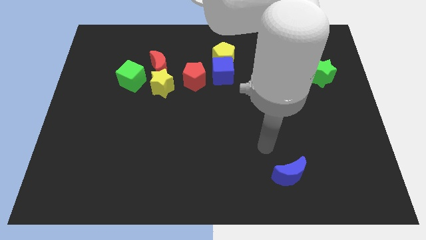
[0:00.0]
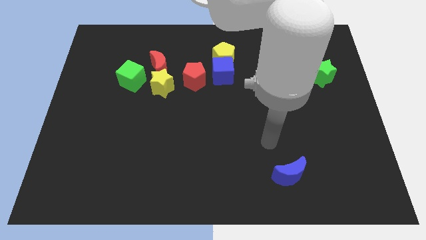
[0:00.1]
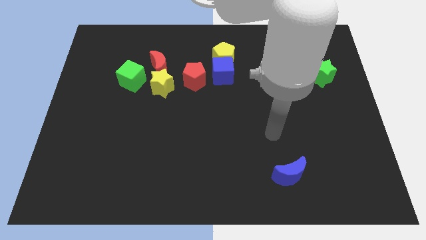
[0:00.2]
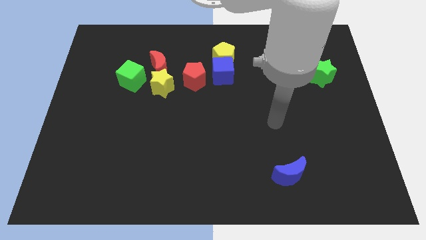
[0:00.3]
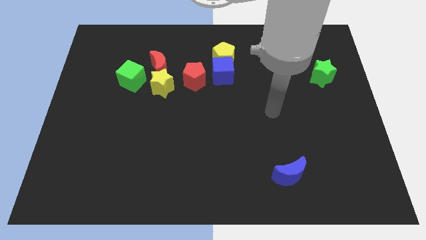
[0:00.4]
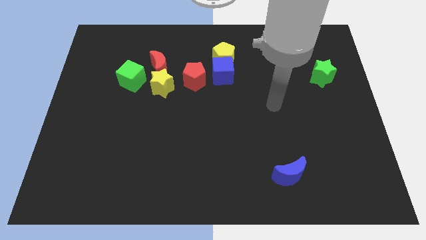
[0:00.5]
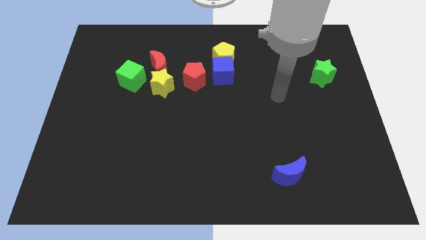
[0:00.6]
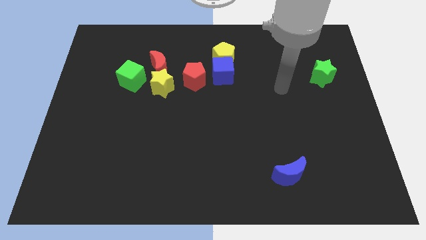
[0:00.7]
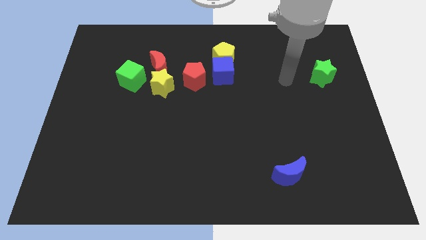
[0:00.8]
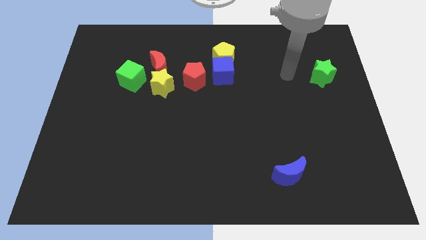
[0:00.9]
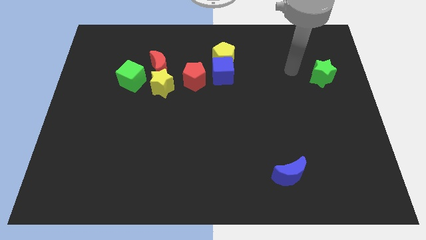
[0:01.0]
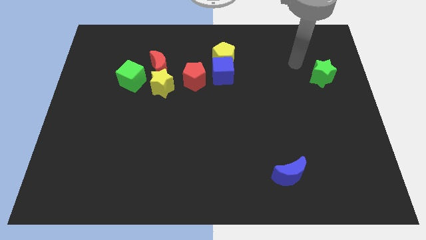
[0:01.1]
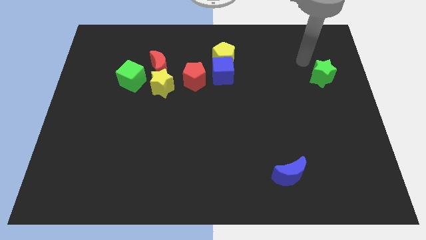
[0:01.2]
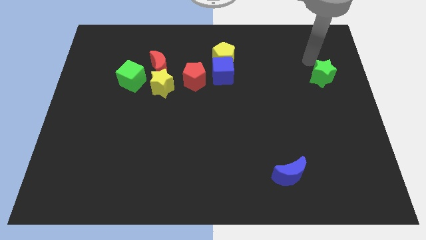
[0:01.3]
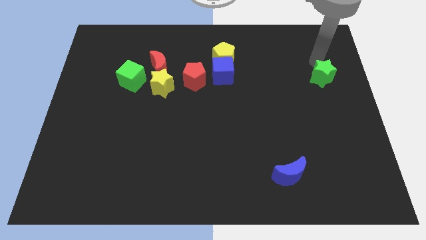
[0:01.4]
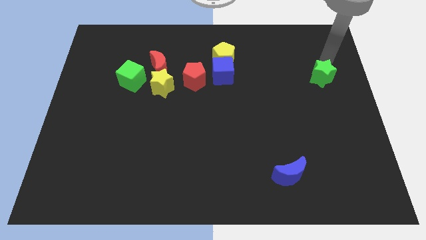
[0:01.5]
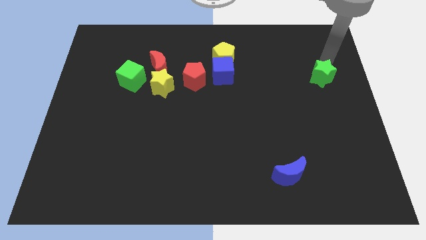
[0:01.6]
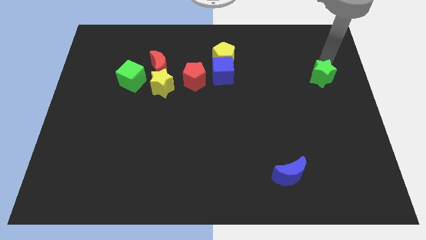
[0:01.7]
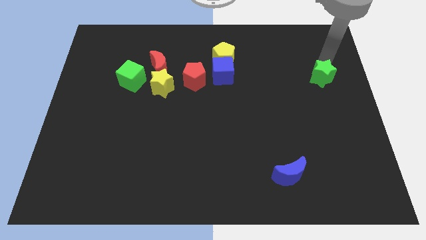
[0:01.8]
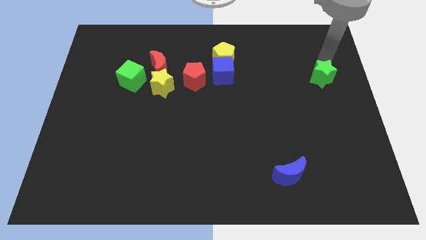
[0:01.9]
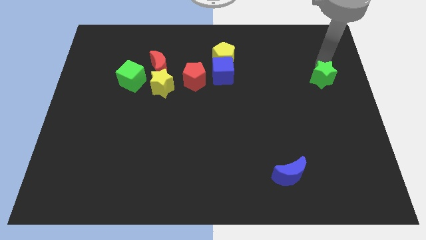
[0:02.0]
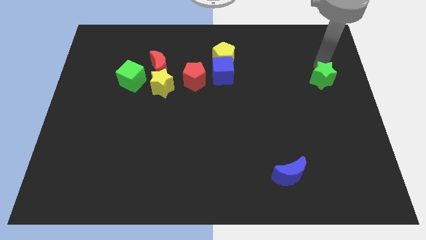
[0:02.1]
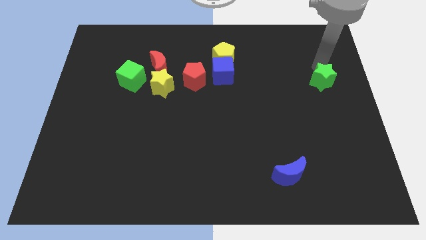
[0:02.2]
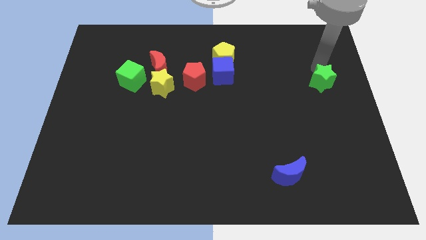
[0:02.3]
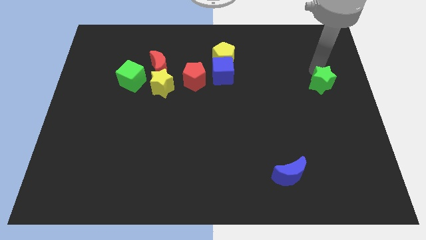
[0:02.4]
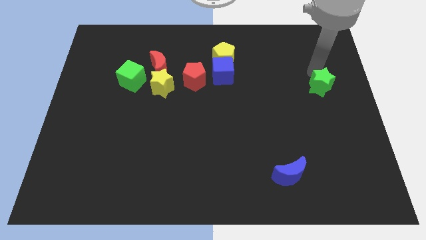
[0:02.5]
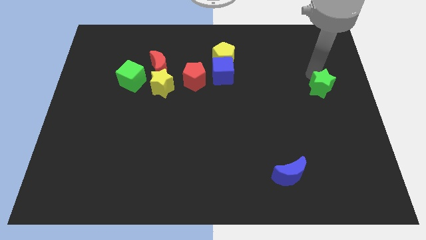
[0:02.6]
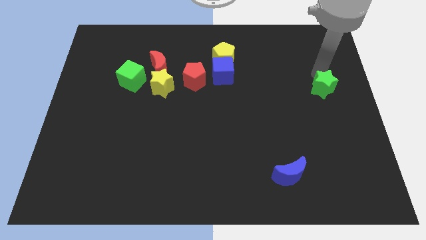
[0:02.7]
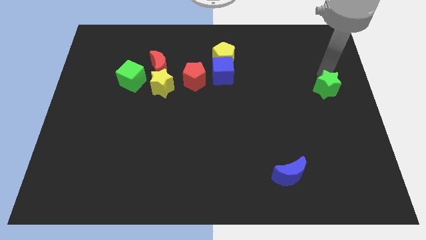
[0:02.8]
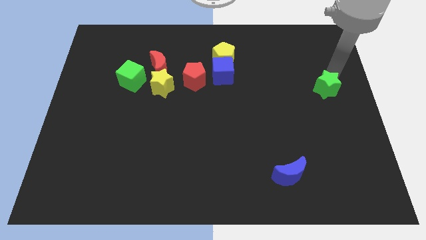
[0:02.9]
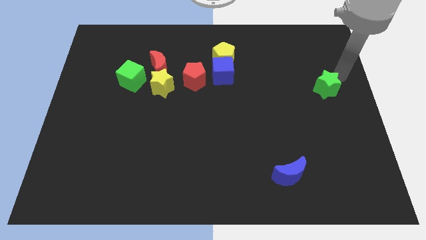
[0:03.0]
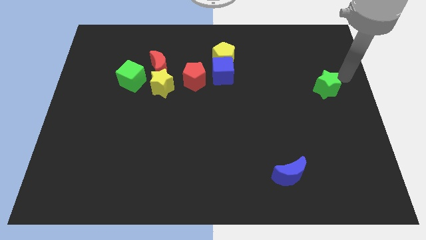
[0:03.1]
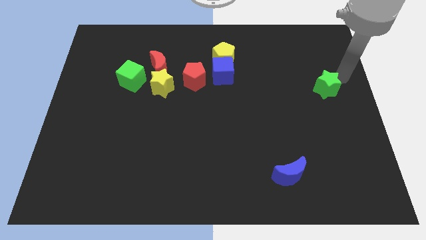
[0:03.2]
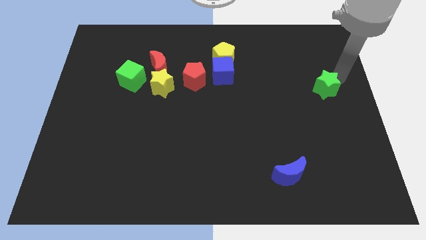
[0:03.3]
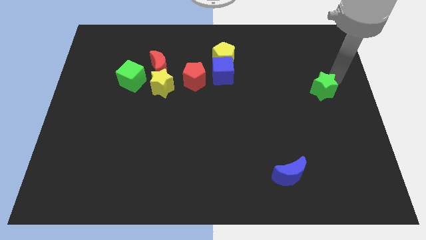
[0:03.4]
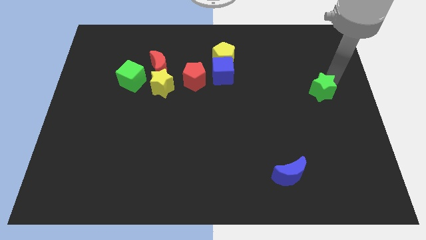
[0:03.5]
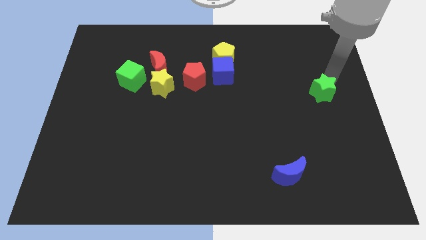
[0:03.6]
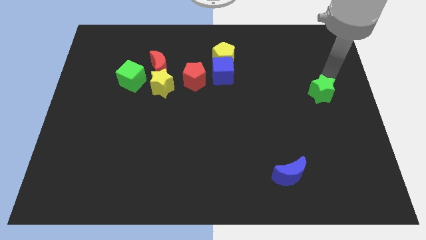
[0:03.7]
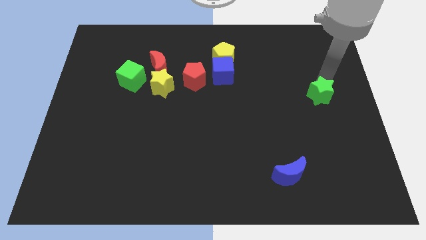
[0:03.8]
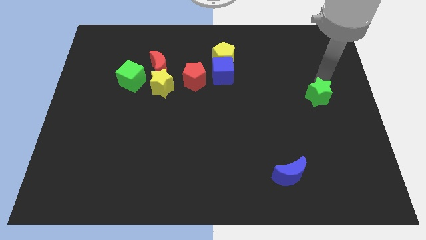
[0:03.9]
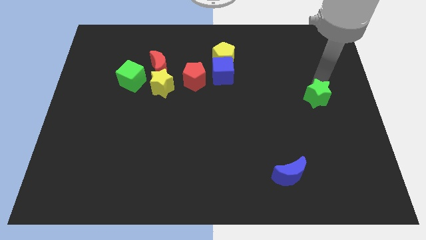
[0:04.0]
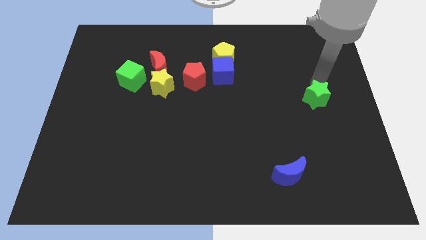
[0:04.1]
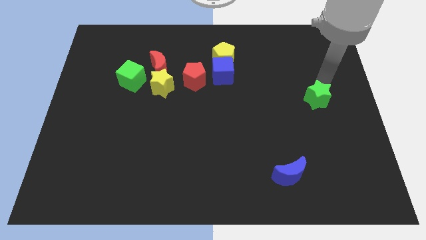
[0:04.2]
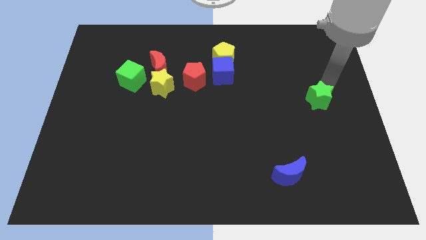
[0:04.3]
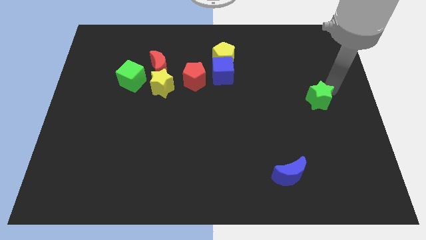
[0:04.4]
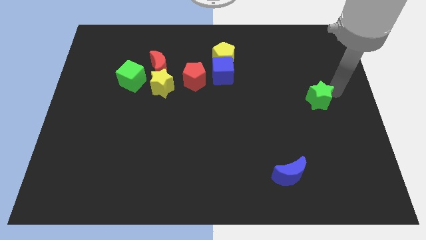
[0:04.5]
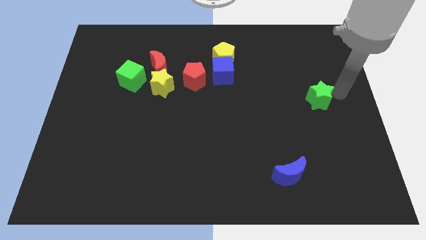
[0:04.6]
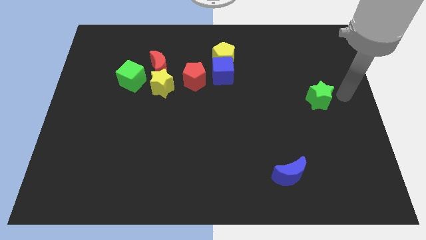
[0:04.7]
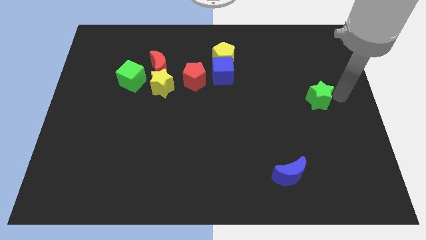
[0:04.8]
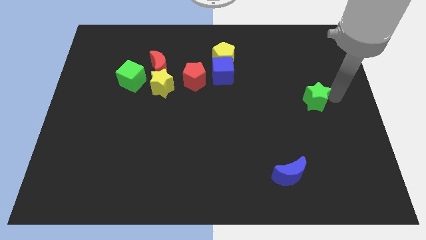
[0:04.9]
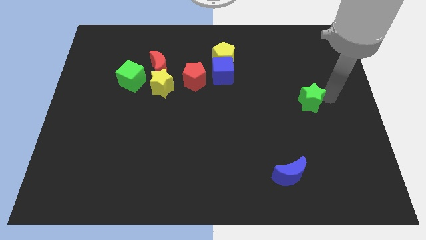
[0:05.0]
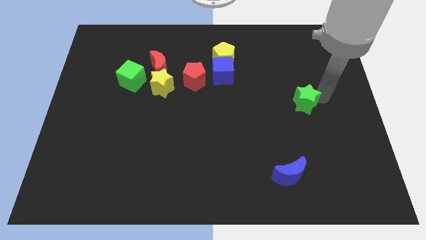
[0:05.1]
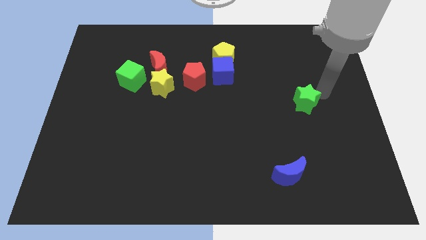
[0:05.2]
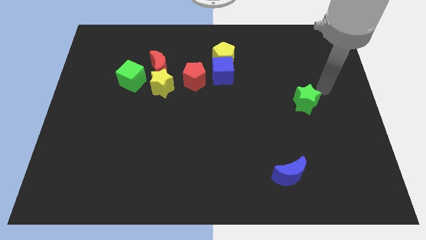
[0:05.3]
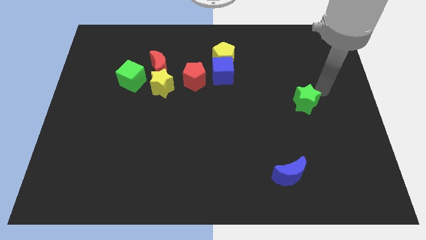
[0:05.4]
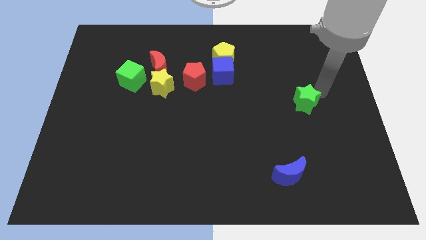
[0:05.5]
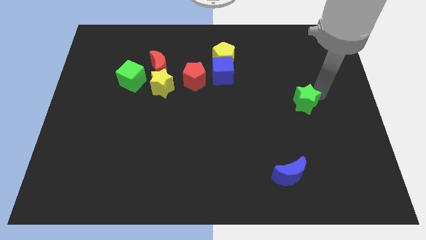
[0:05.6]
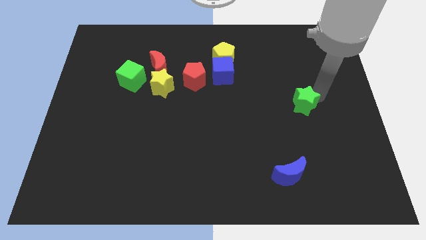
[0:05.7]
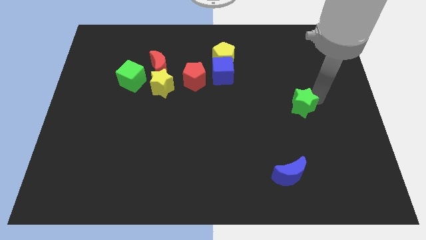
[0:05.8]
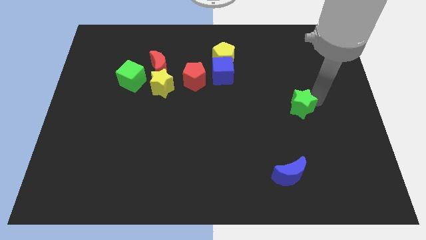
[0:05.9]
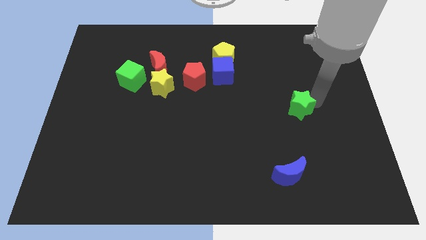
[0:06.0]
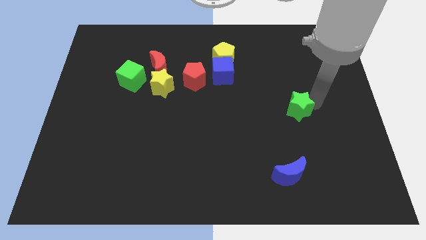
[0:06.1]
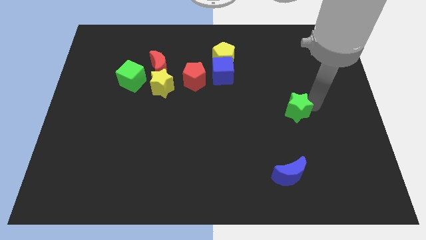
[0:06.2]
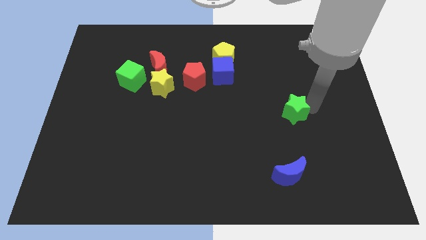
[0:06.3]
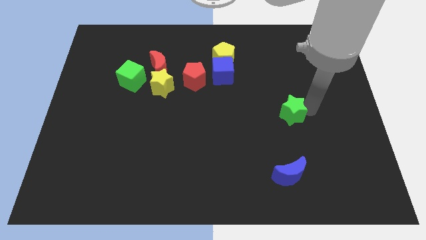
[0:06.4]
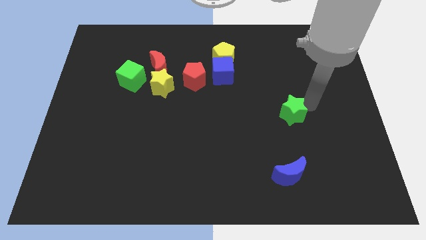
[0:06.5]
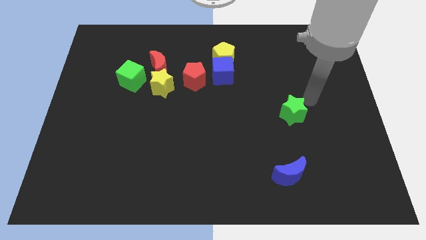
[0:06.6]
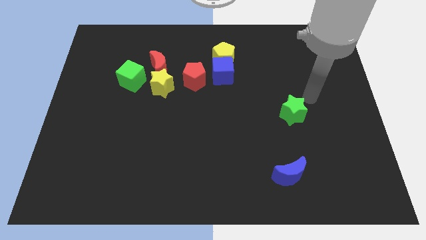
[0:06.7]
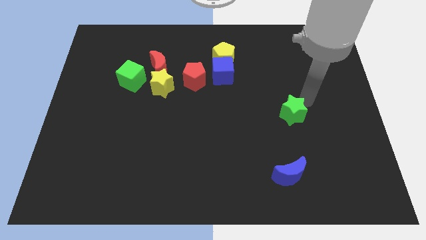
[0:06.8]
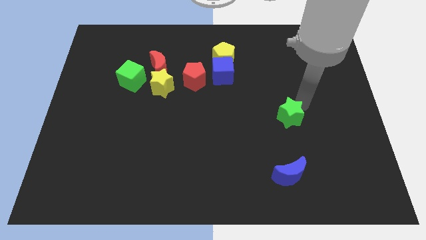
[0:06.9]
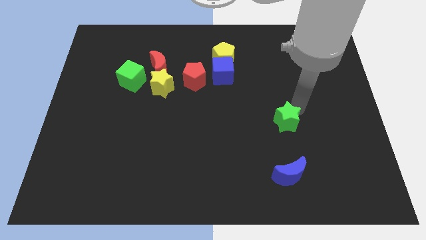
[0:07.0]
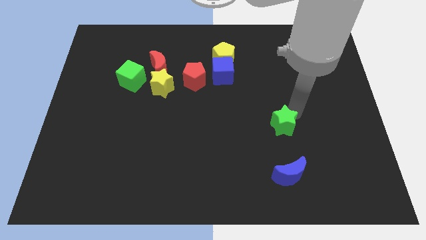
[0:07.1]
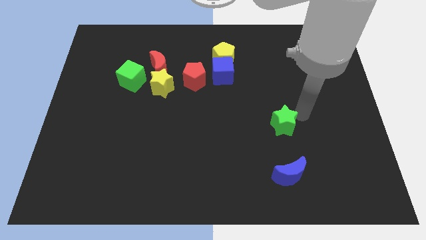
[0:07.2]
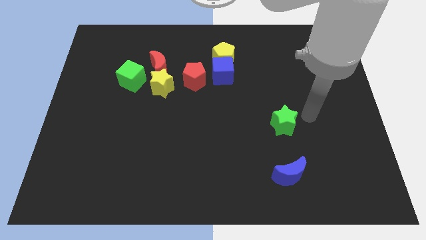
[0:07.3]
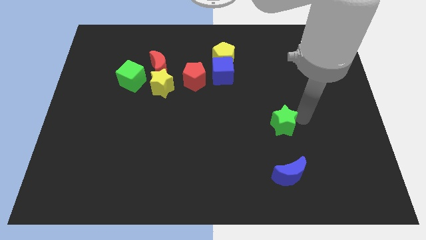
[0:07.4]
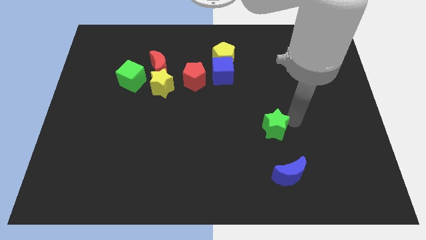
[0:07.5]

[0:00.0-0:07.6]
move the green star down and left diagonally

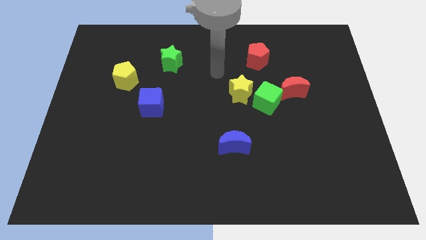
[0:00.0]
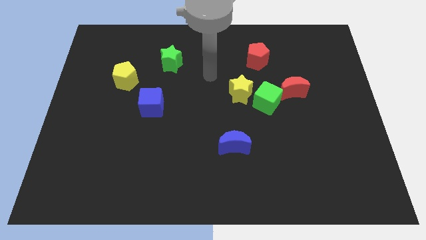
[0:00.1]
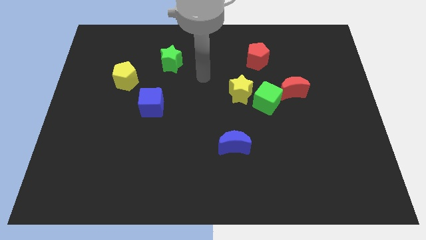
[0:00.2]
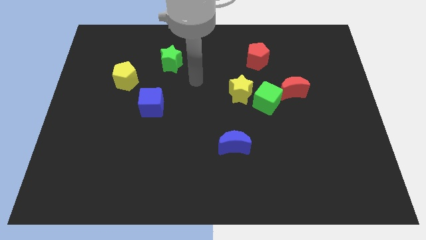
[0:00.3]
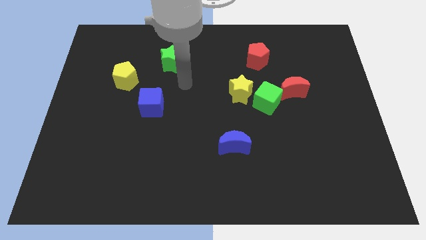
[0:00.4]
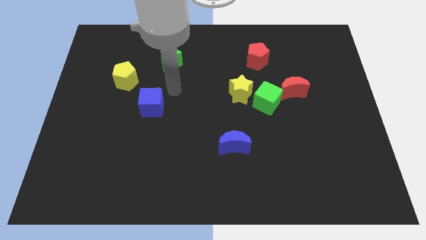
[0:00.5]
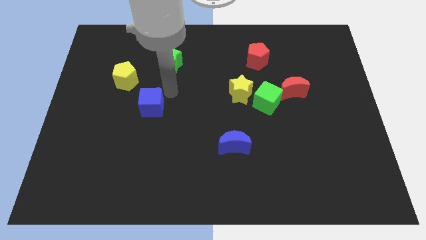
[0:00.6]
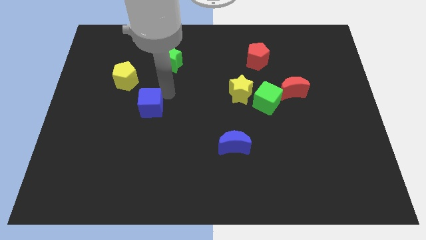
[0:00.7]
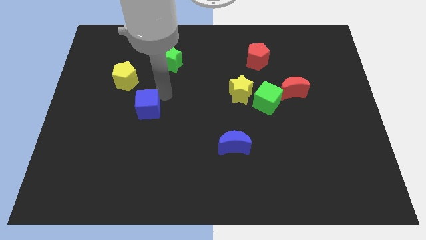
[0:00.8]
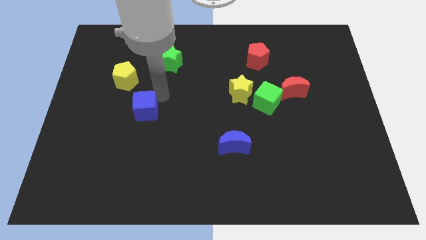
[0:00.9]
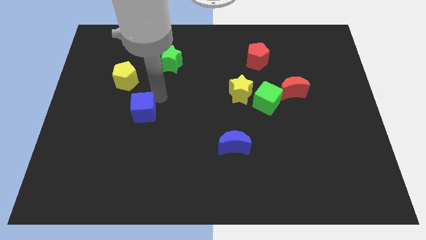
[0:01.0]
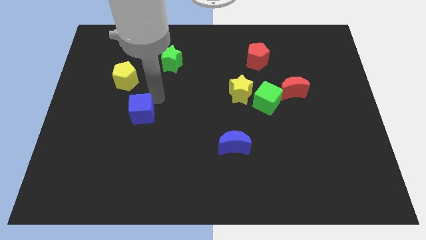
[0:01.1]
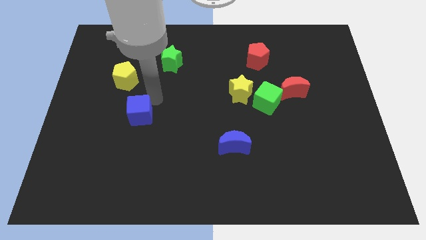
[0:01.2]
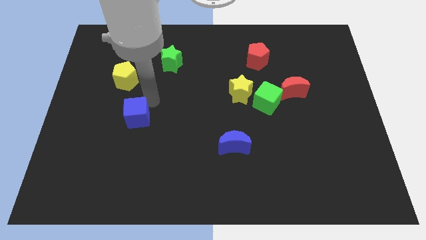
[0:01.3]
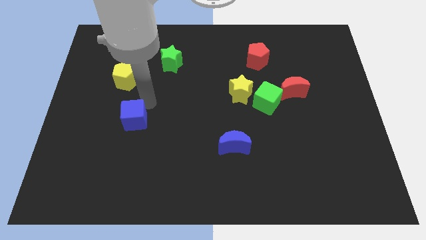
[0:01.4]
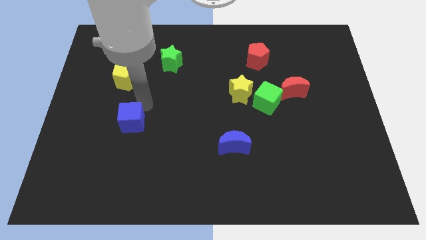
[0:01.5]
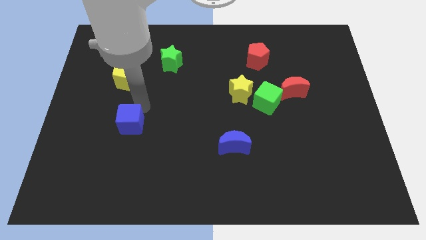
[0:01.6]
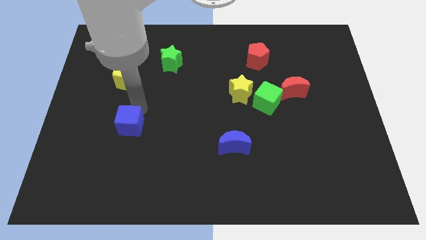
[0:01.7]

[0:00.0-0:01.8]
push the blue cube down and then left slightly
